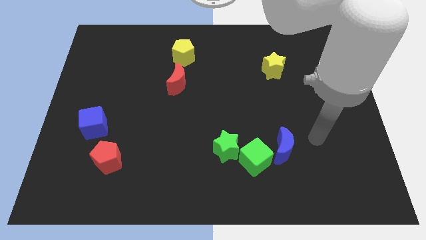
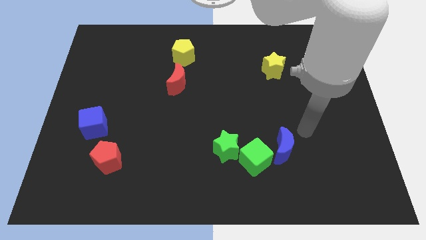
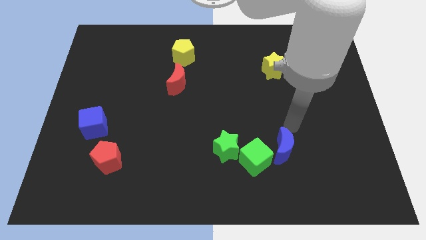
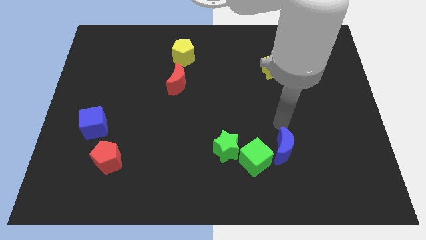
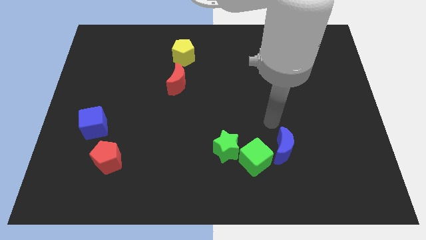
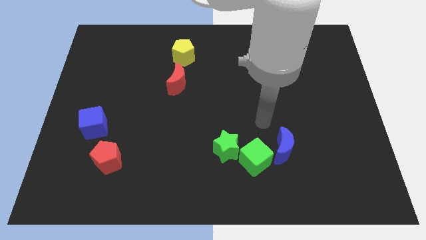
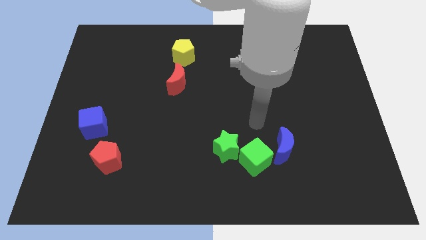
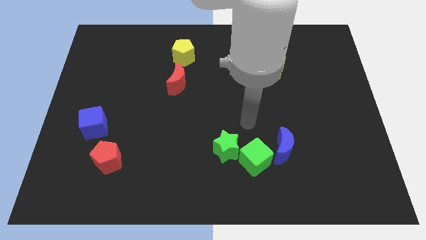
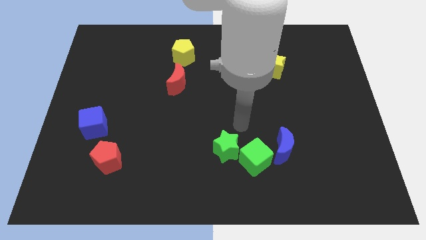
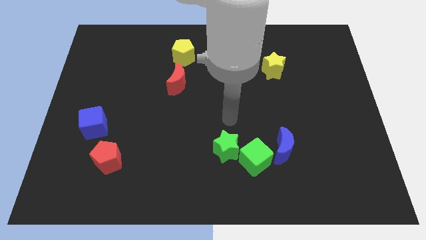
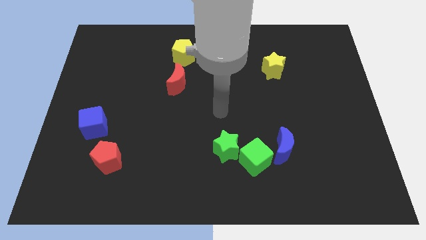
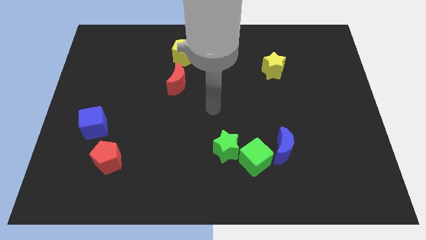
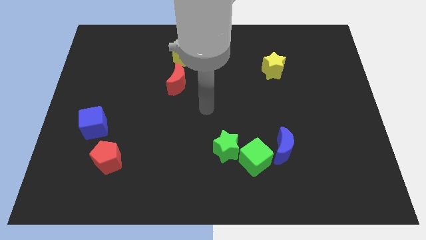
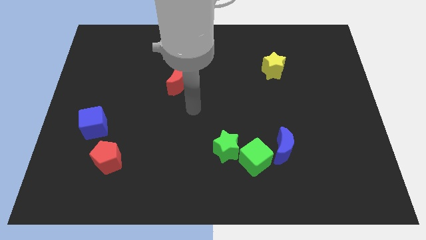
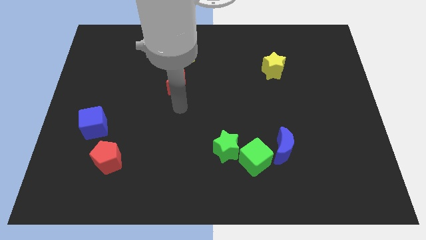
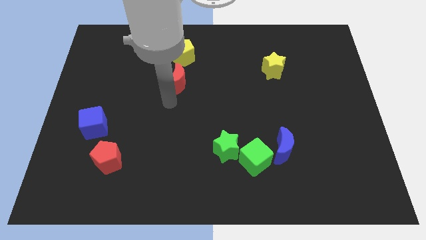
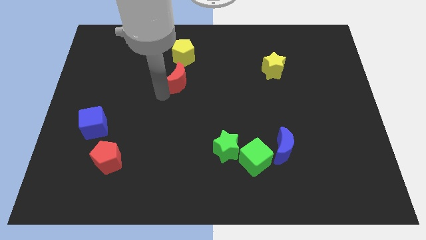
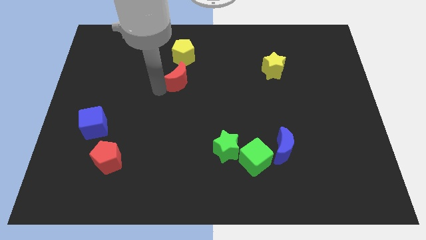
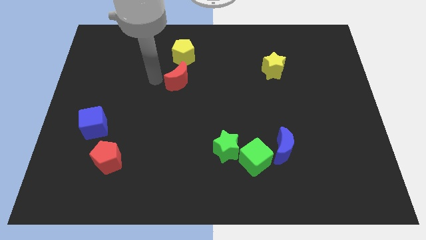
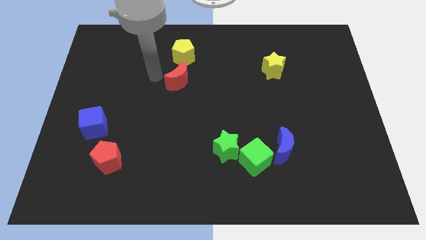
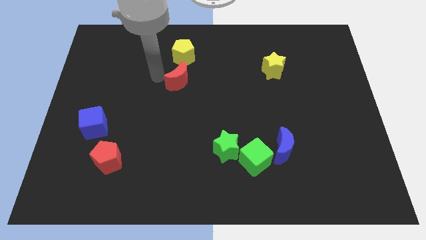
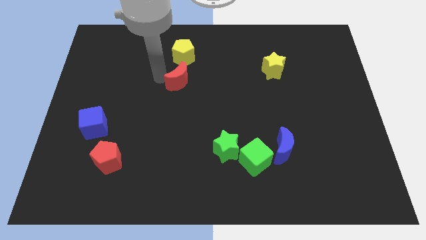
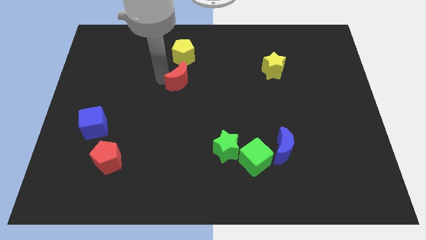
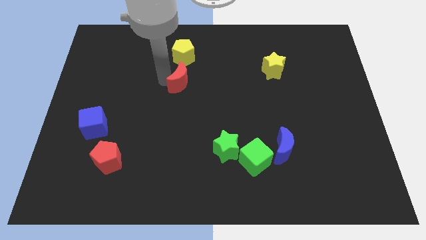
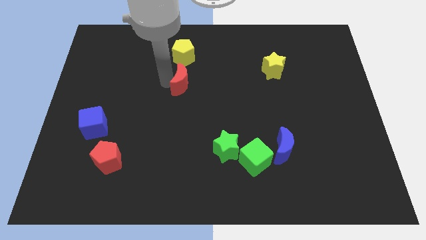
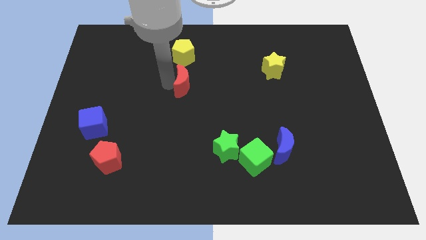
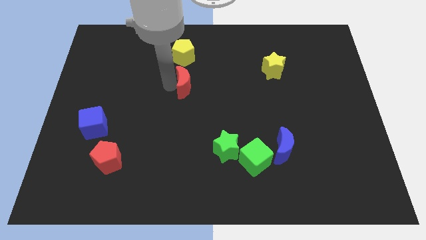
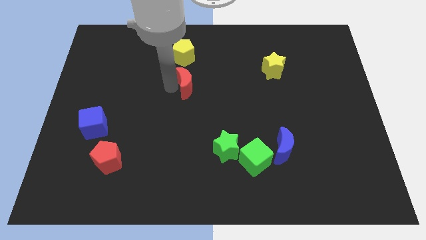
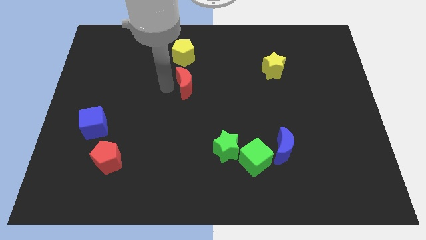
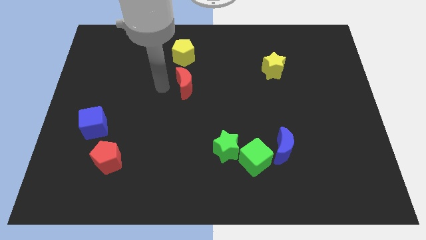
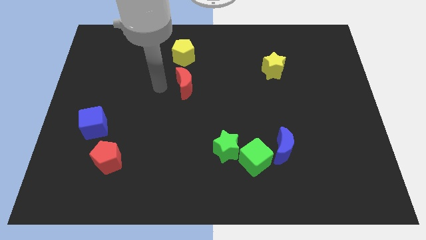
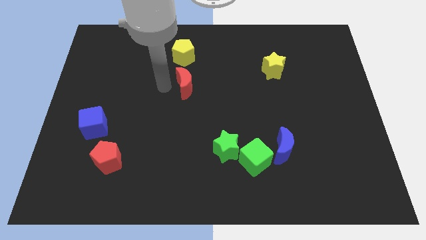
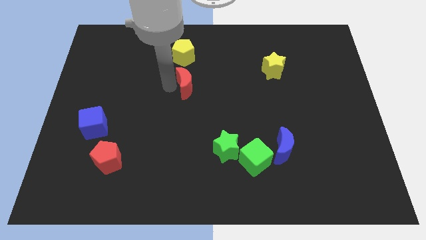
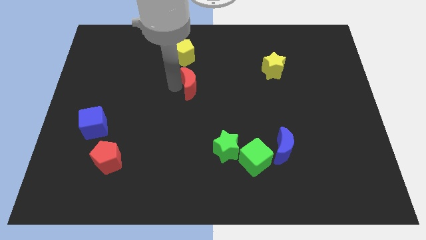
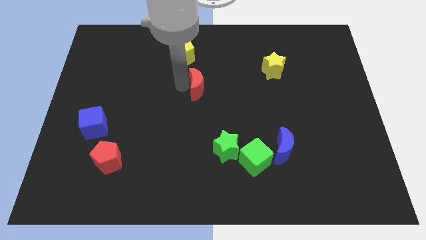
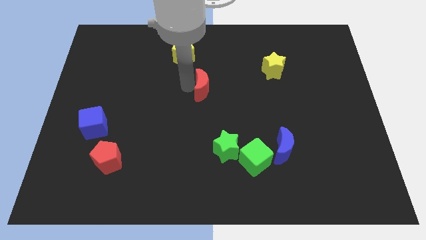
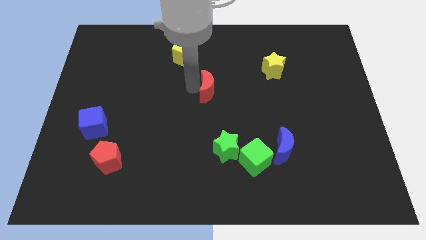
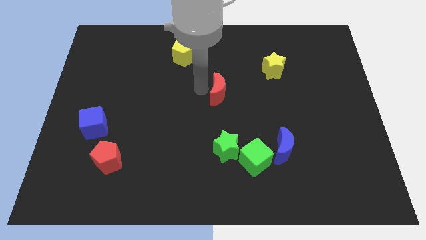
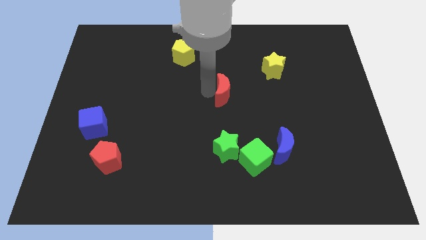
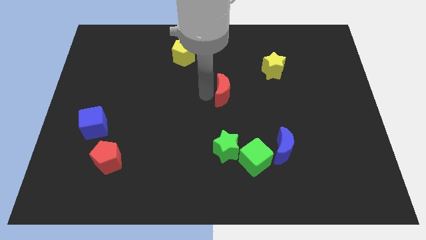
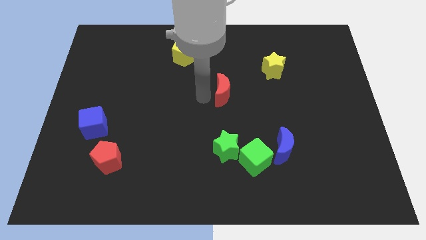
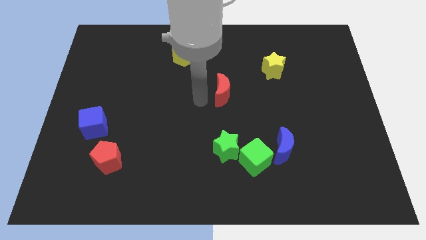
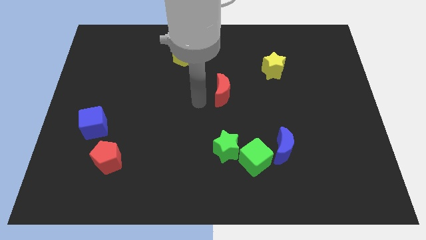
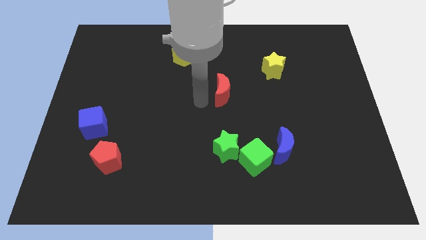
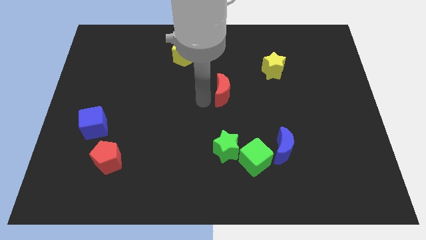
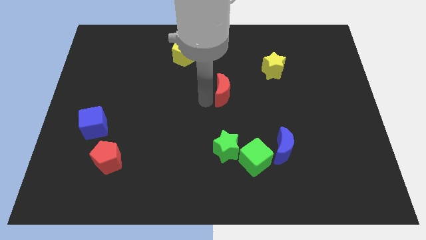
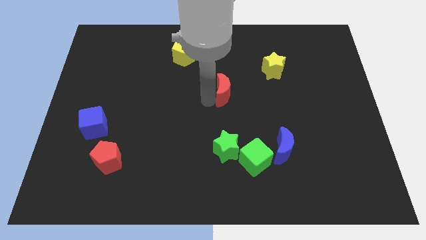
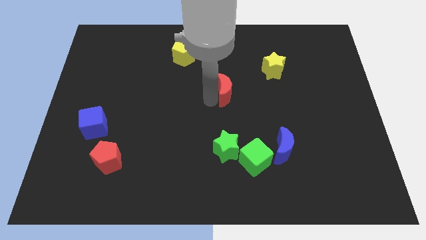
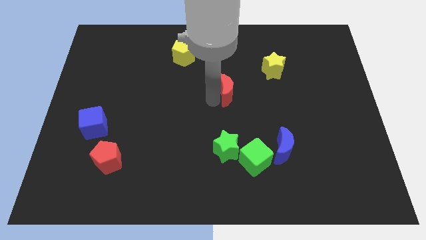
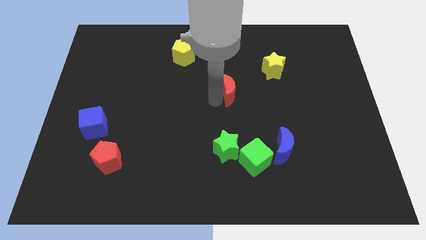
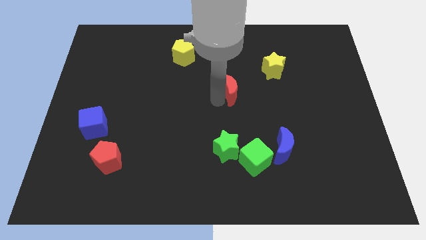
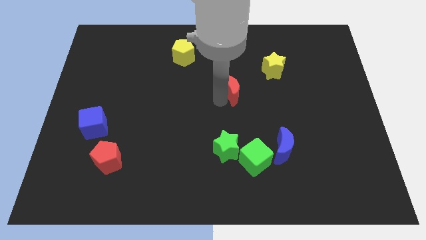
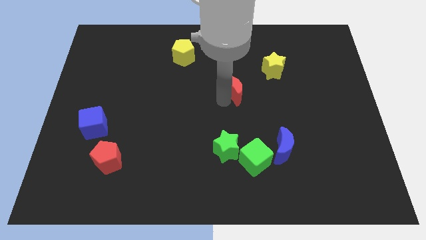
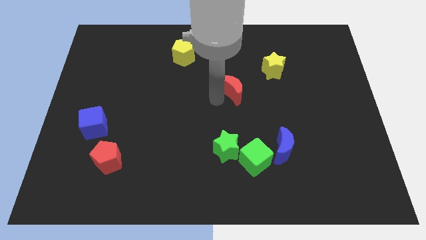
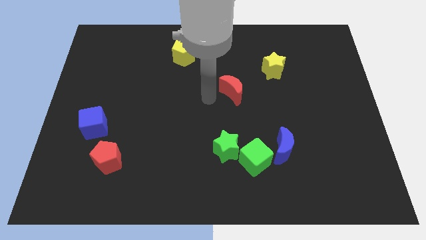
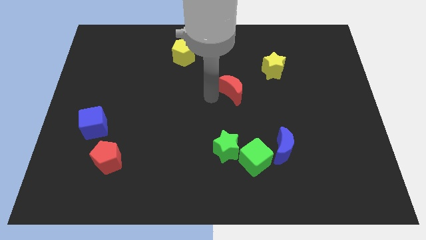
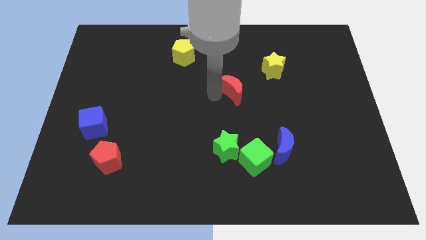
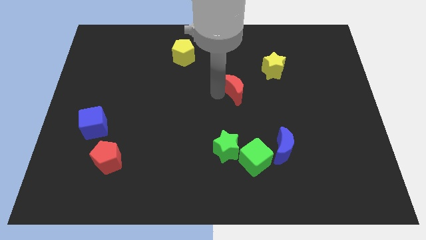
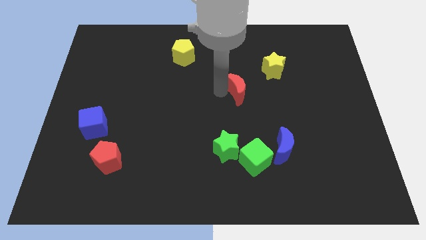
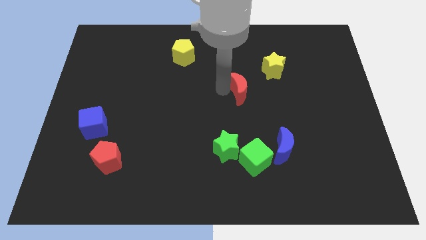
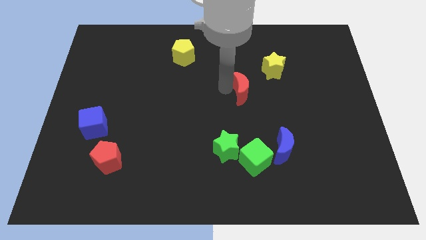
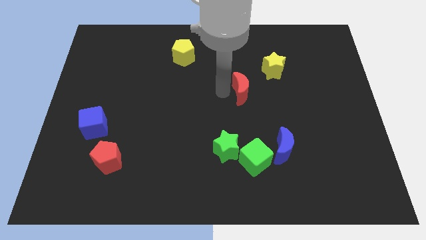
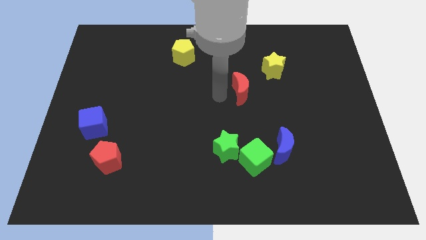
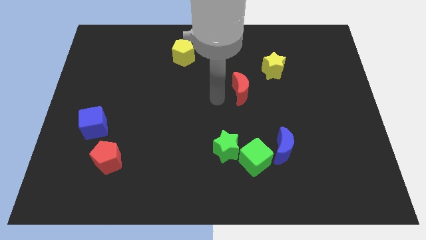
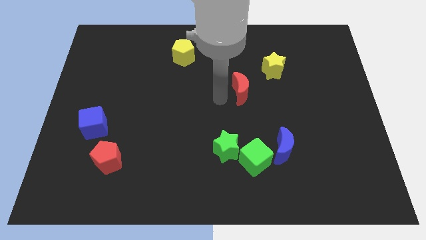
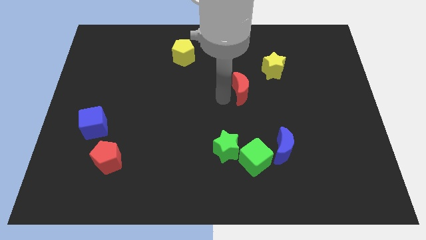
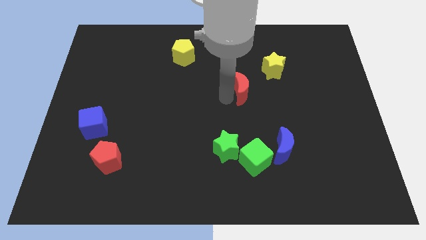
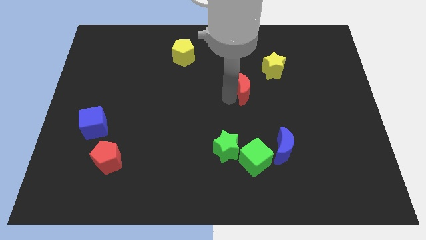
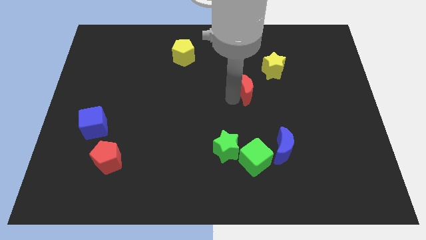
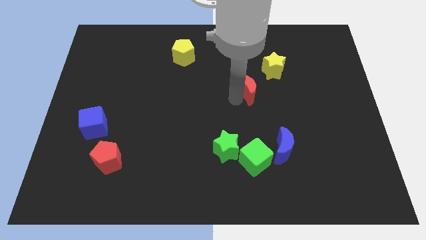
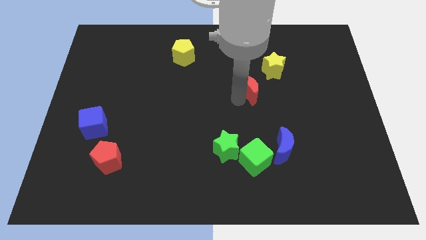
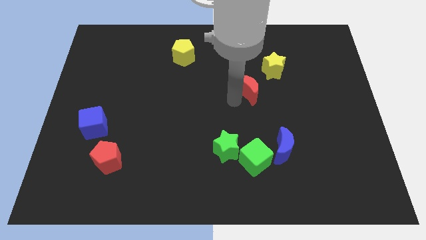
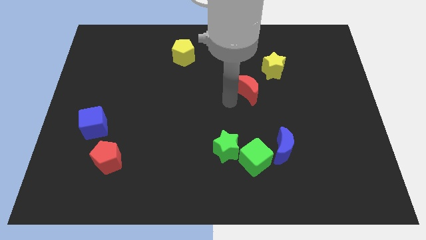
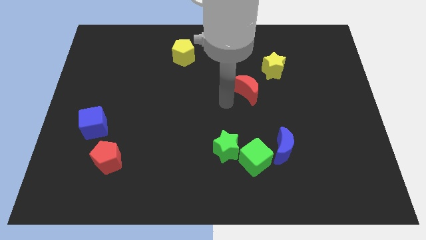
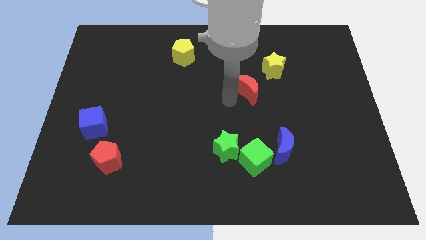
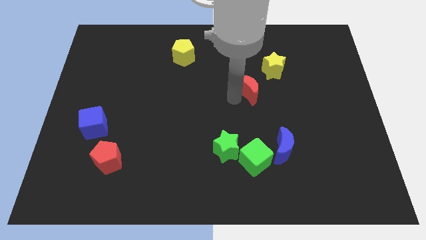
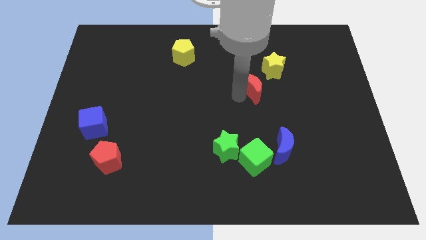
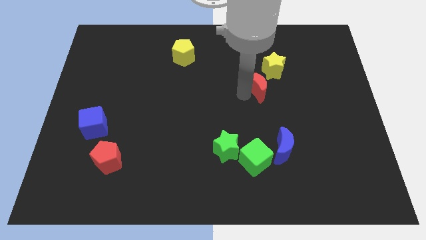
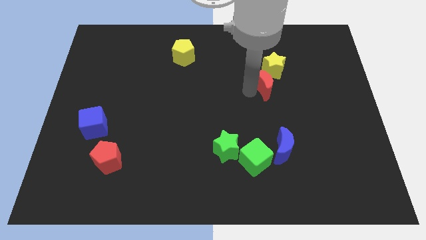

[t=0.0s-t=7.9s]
move the red moon to the right

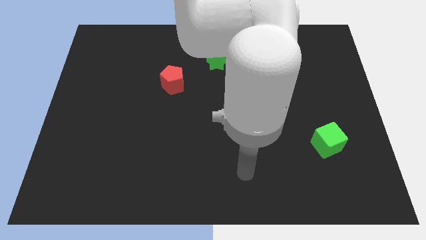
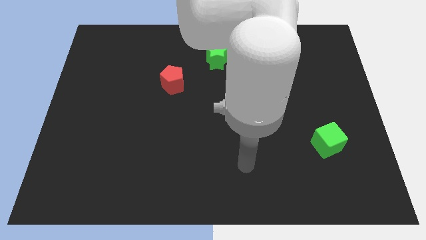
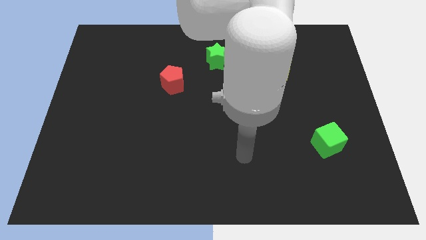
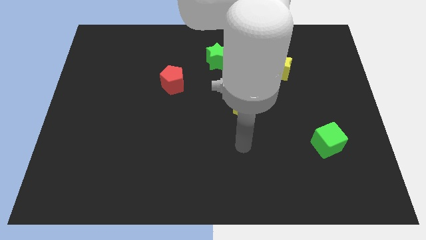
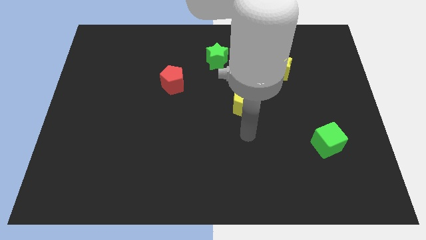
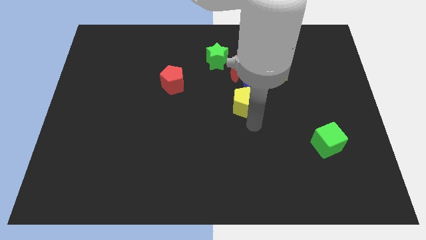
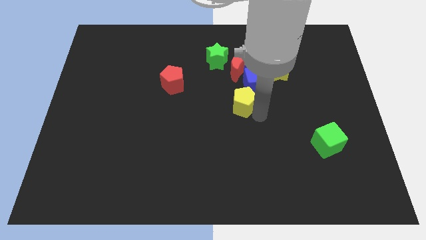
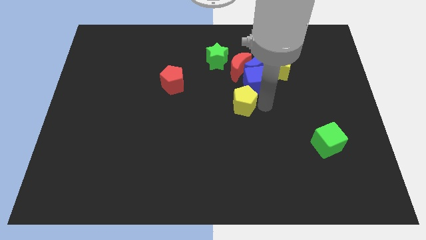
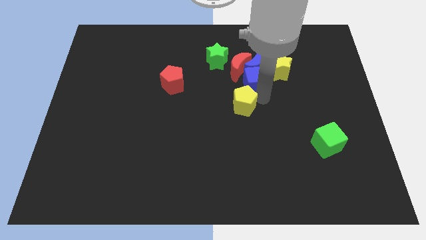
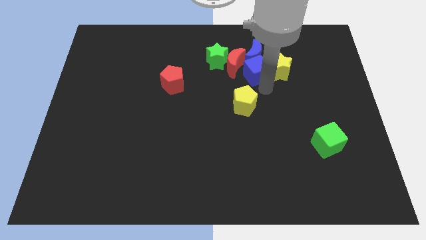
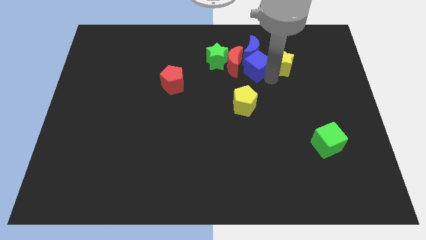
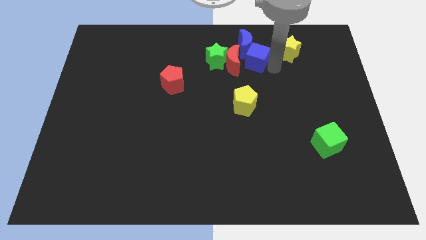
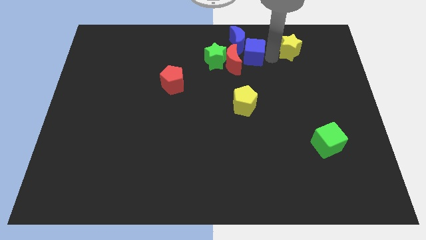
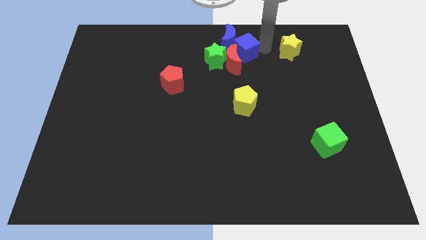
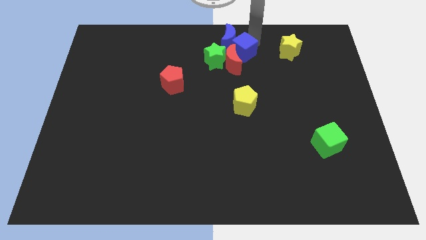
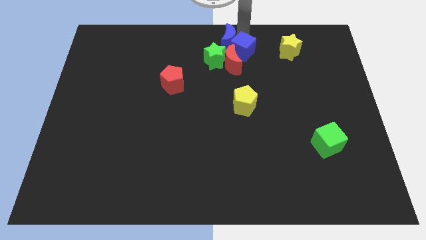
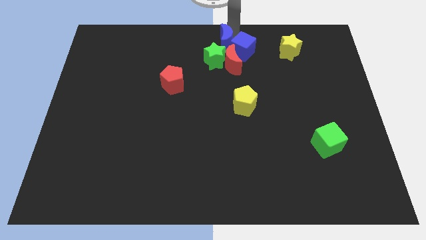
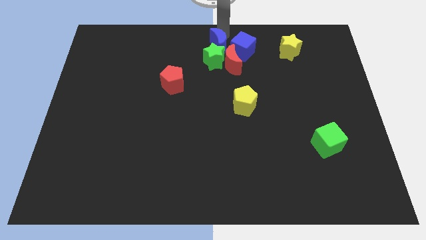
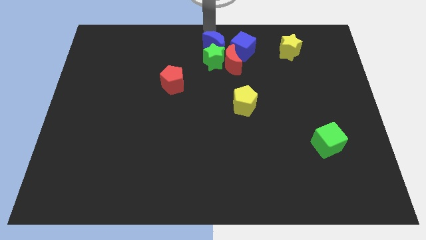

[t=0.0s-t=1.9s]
slide the blue moon left somewhat
